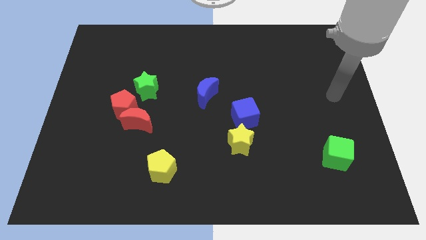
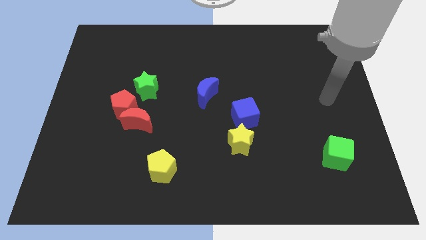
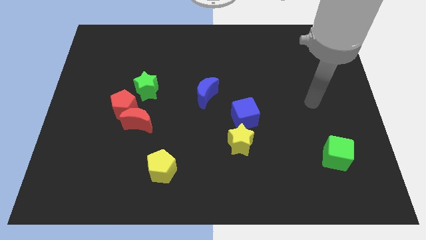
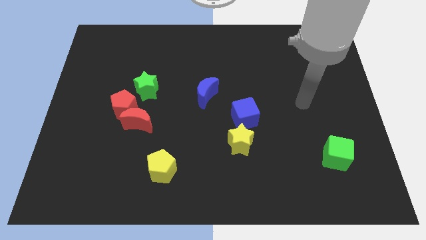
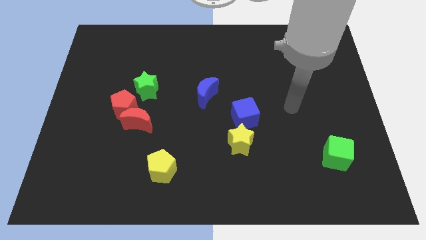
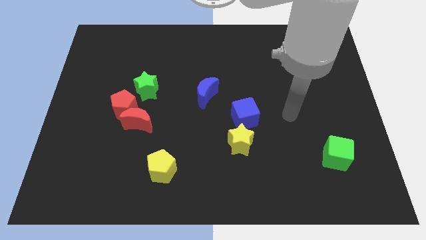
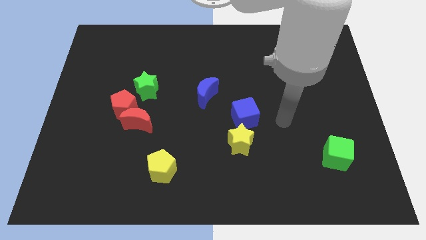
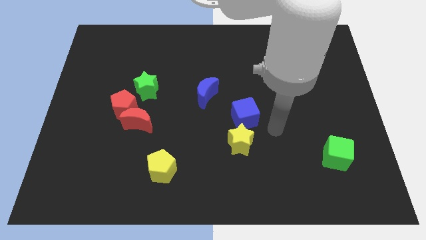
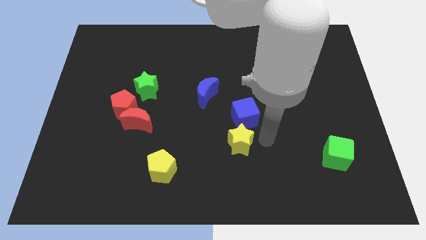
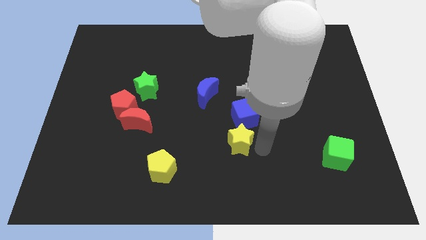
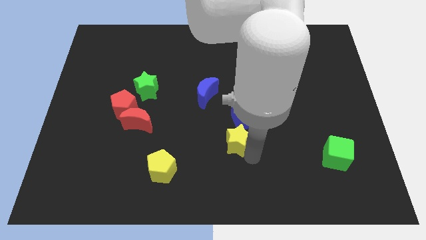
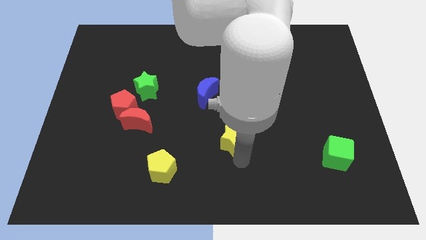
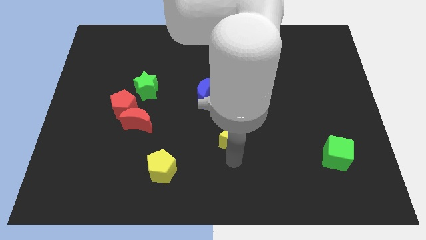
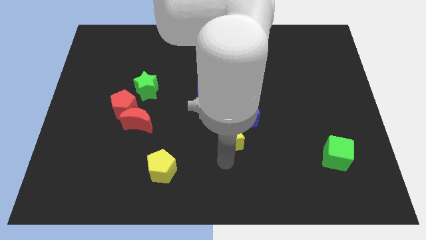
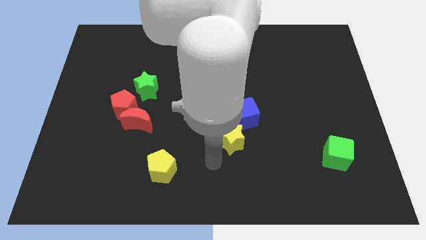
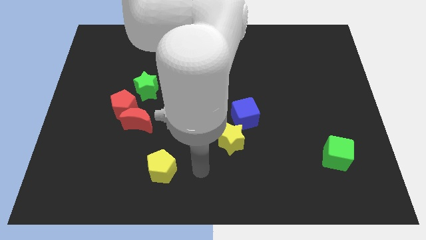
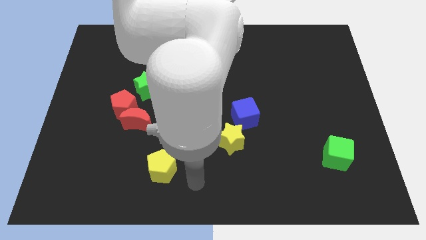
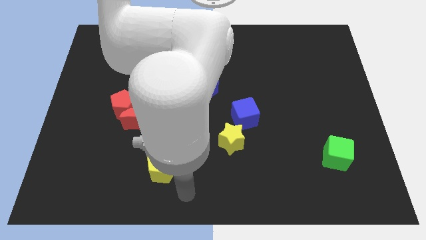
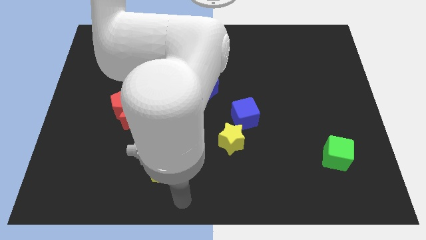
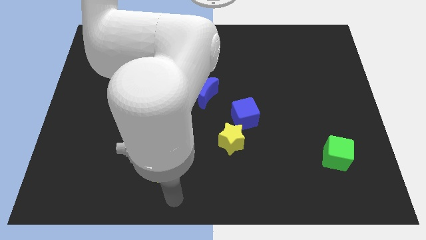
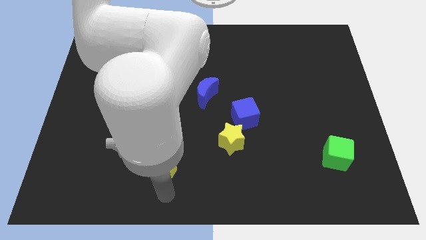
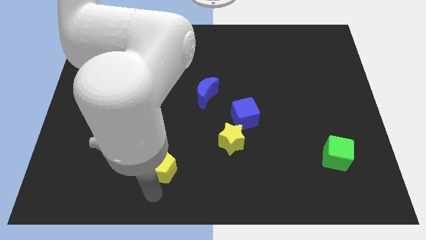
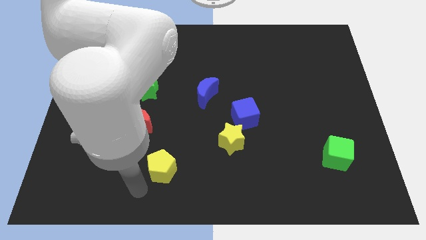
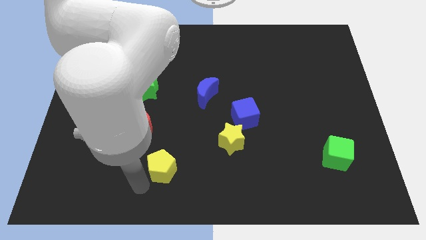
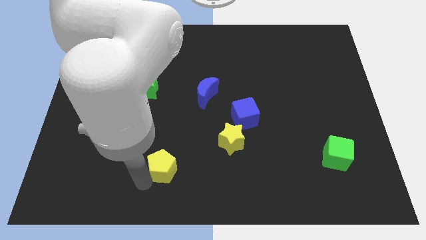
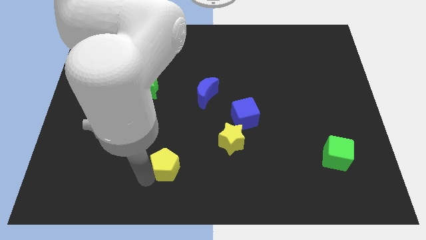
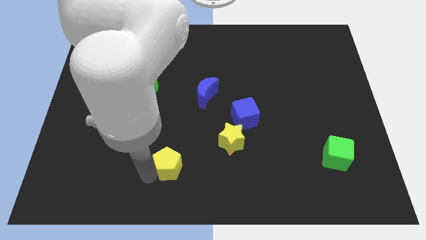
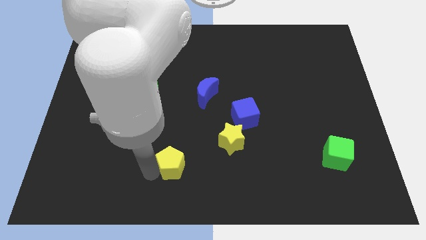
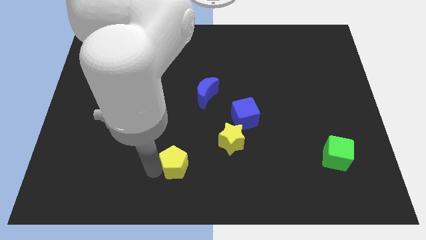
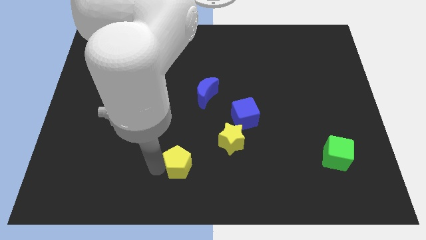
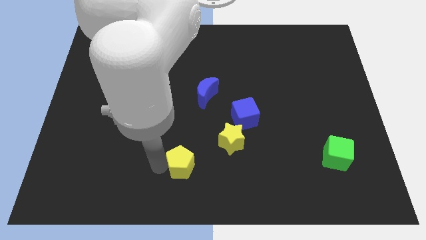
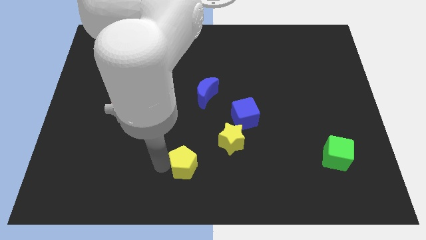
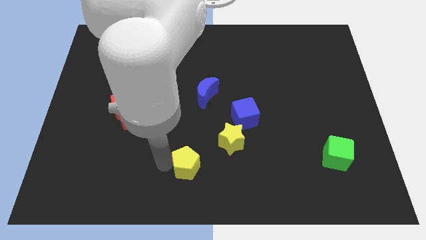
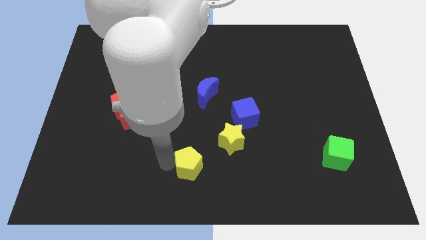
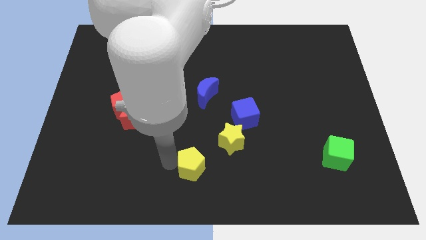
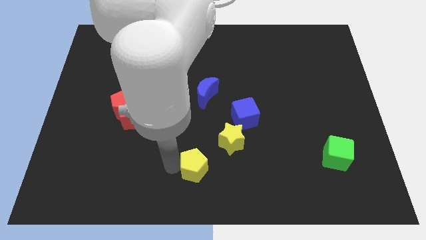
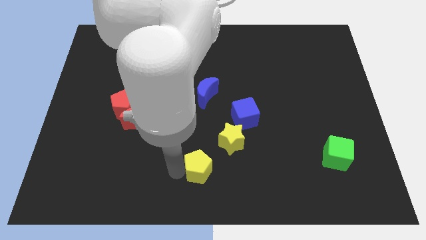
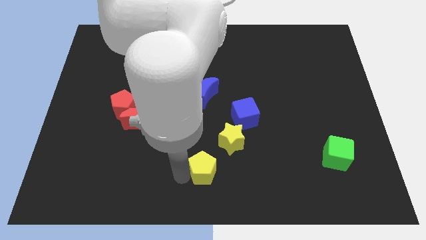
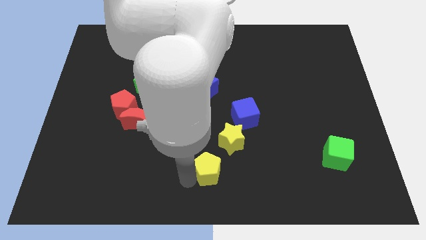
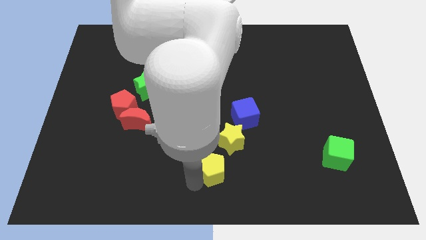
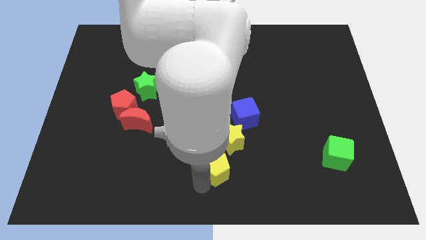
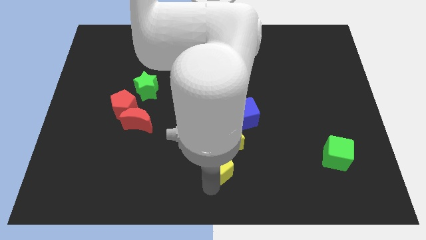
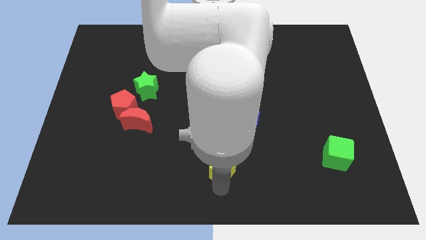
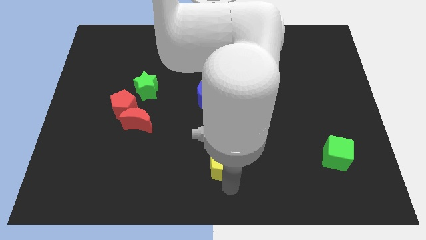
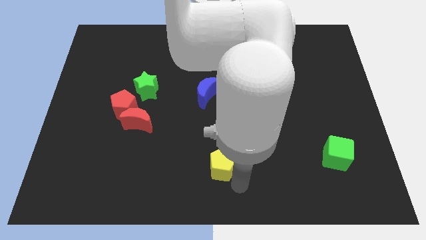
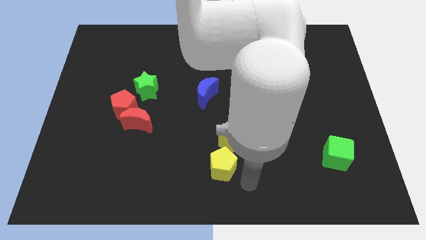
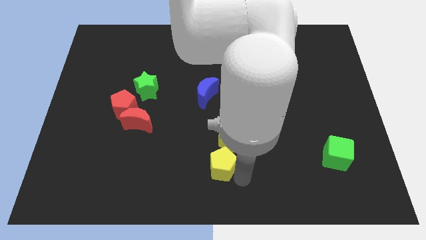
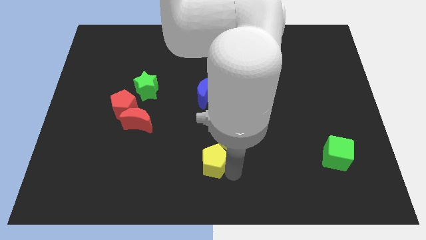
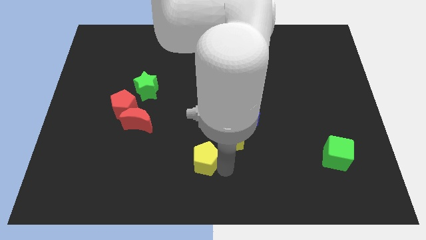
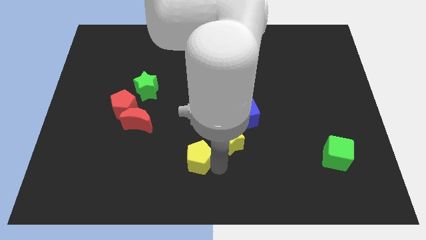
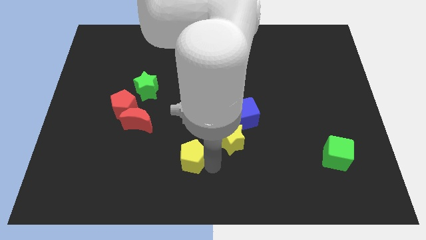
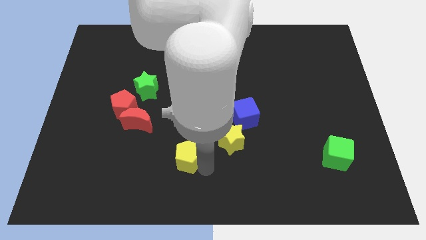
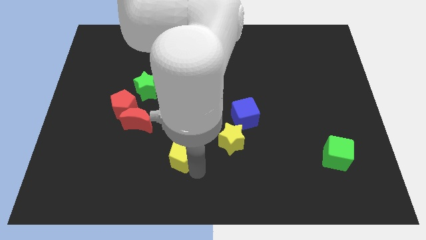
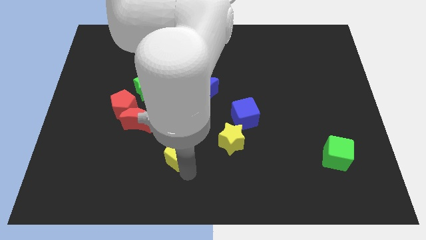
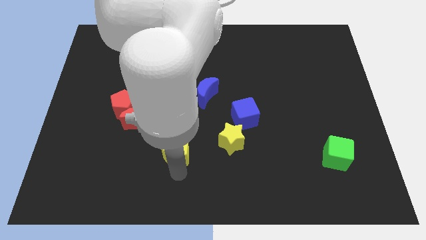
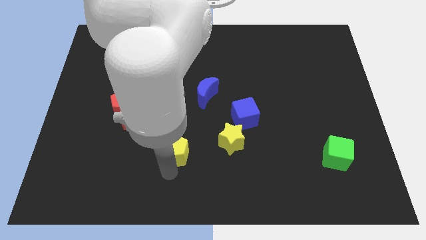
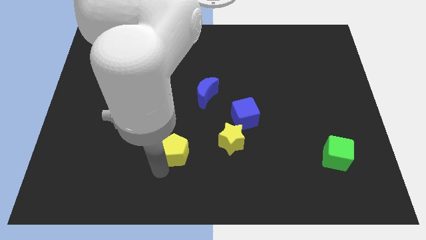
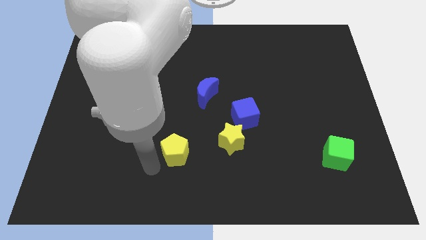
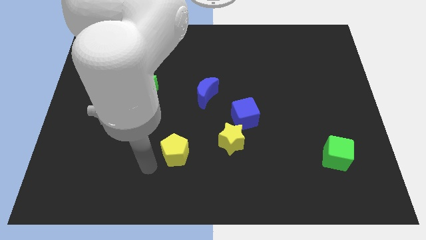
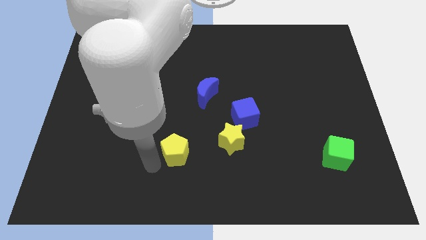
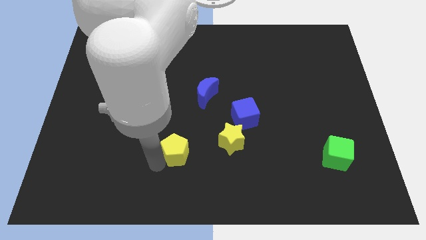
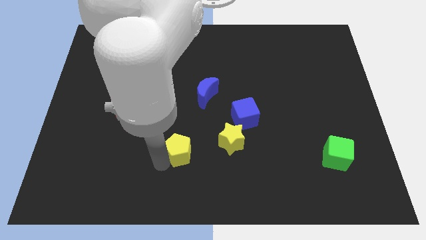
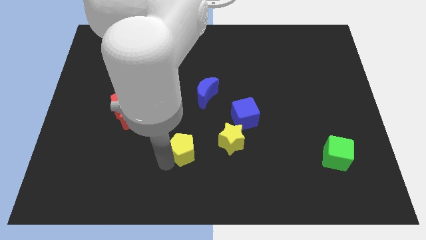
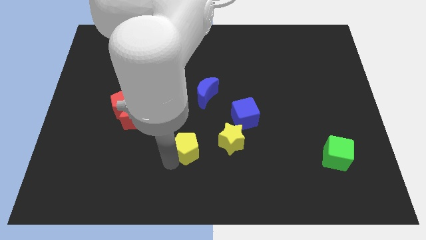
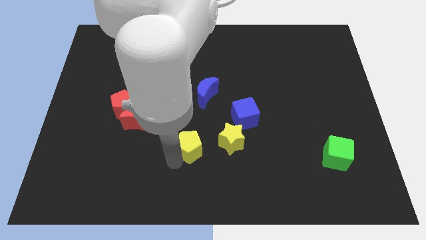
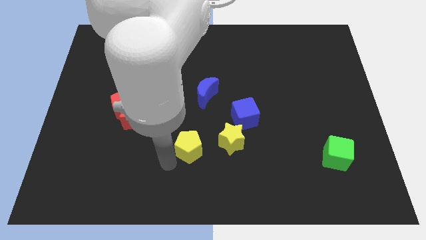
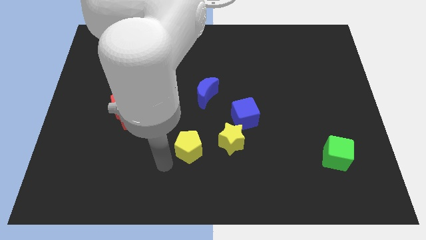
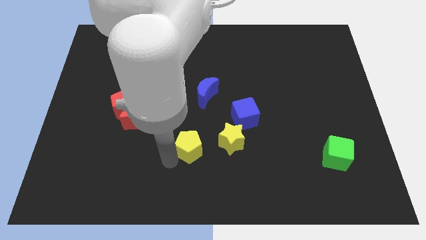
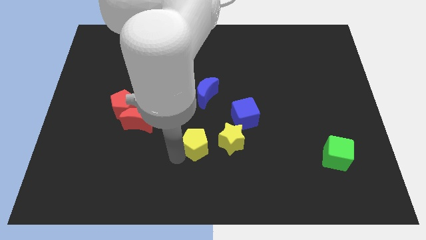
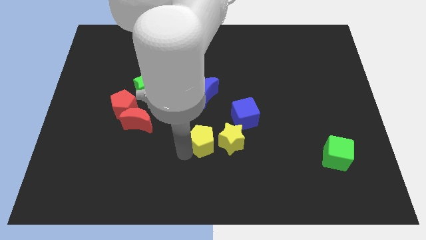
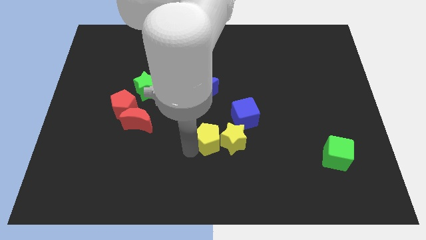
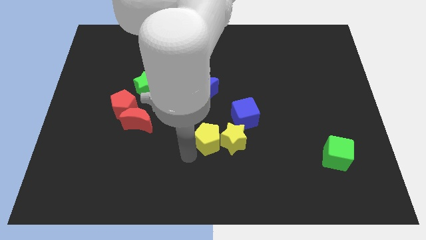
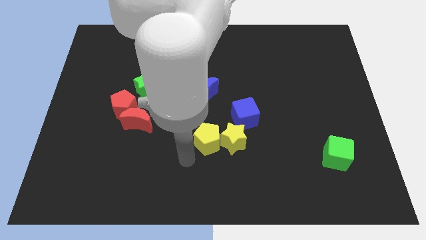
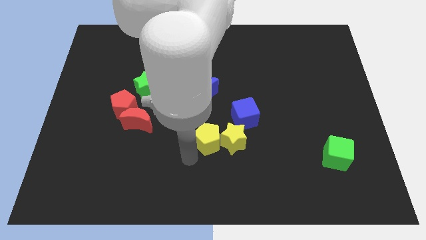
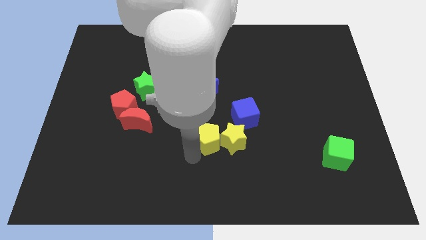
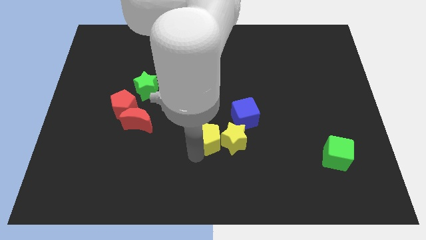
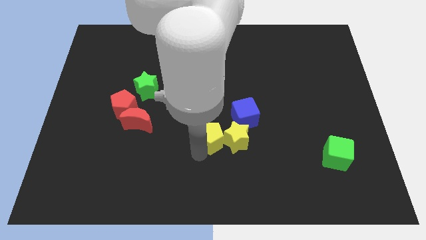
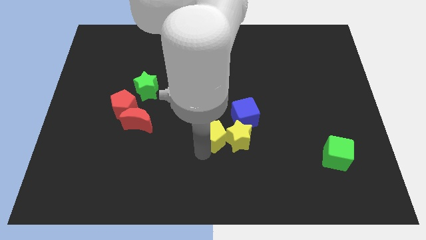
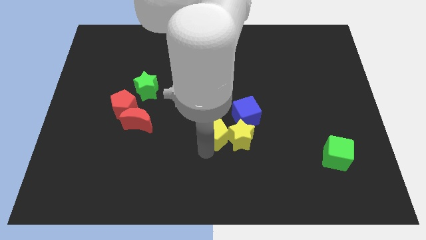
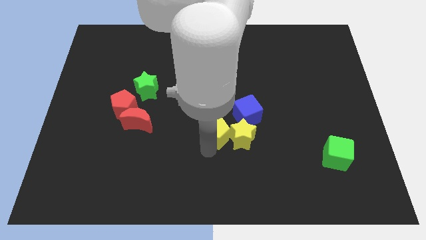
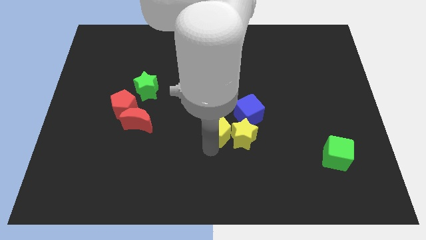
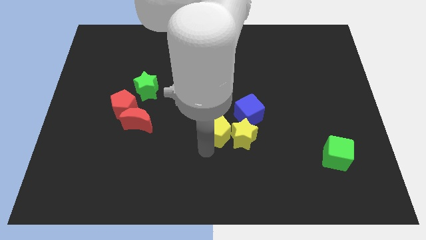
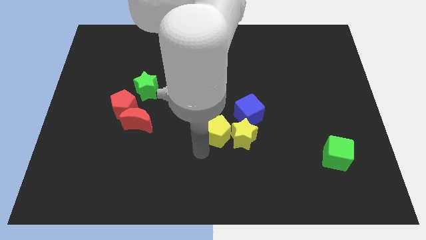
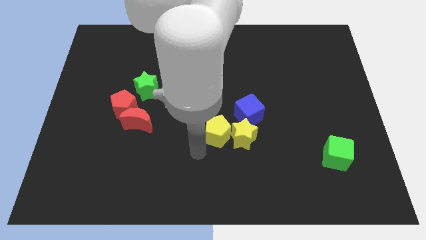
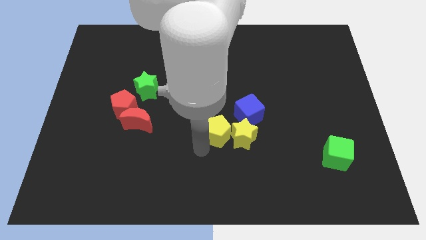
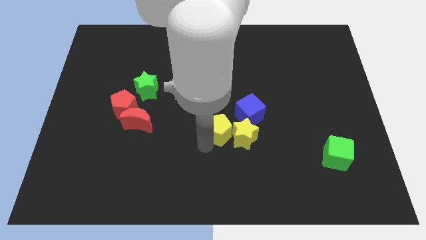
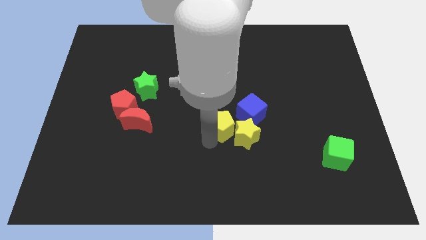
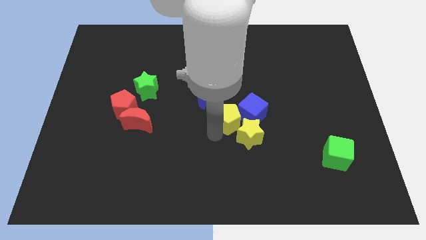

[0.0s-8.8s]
push the yellow pentagon towards the blue cube
